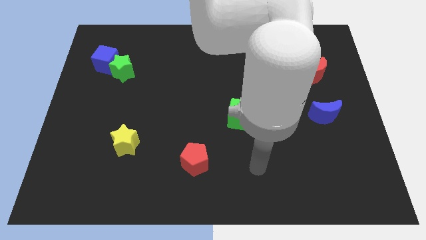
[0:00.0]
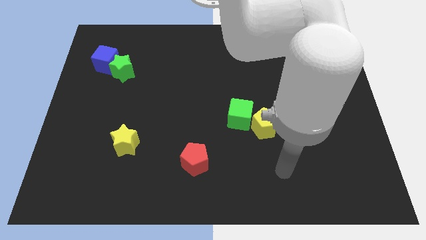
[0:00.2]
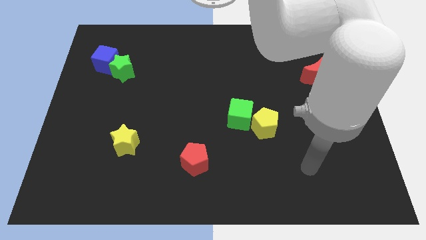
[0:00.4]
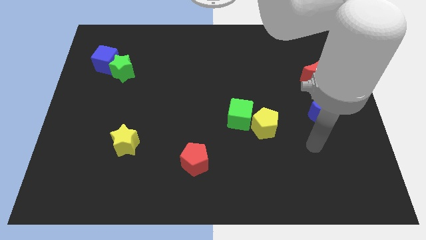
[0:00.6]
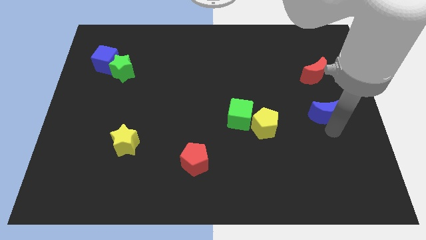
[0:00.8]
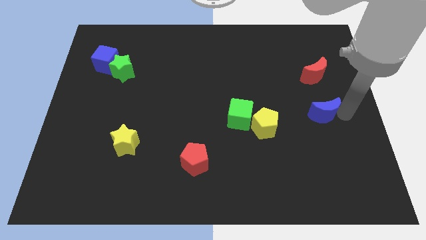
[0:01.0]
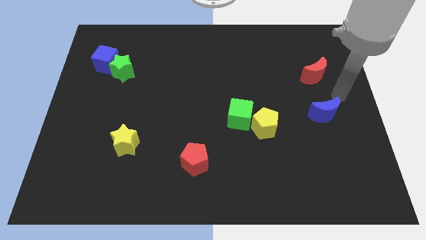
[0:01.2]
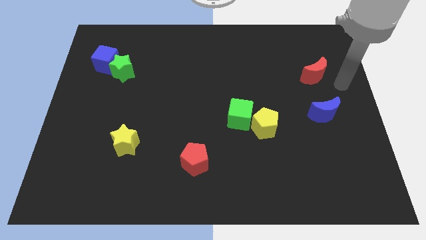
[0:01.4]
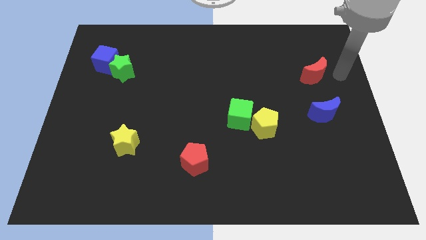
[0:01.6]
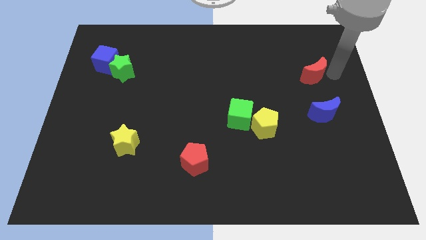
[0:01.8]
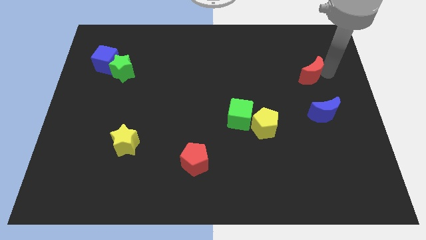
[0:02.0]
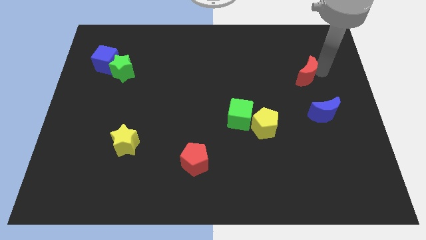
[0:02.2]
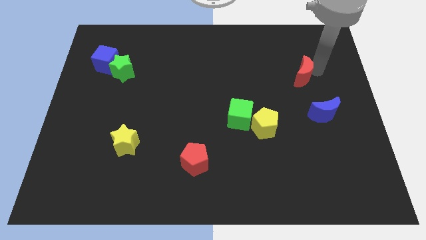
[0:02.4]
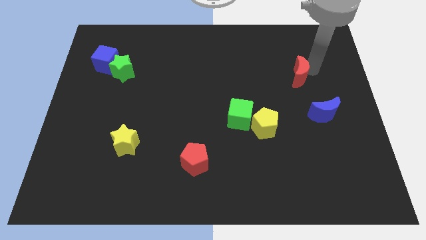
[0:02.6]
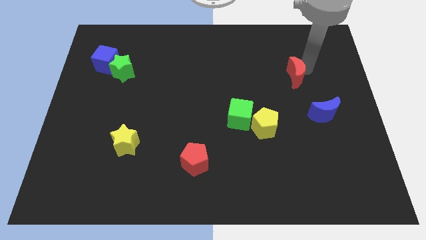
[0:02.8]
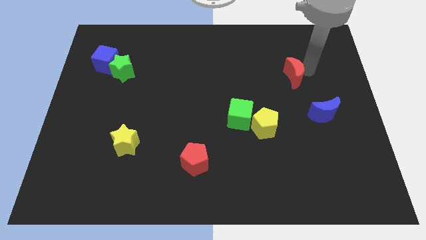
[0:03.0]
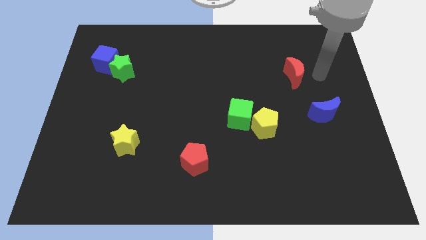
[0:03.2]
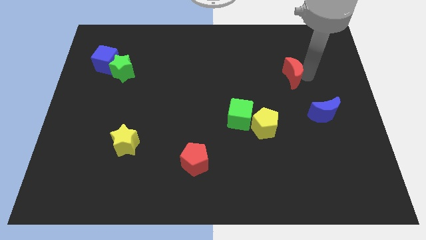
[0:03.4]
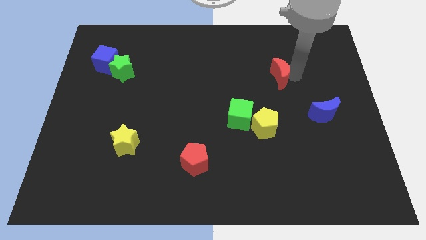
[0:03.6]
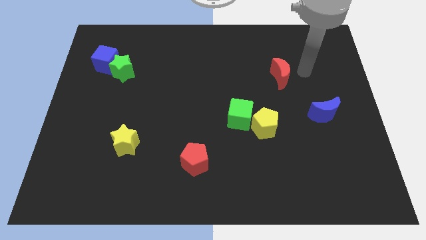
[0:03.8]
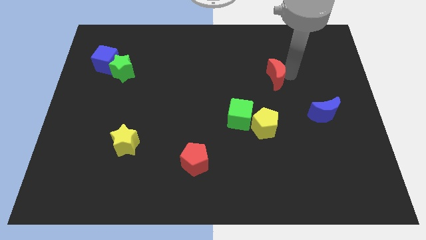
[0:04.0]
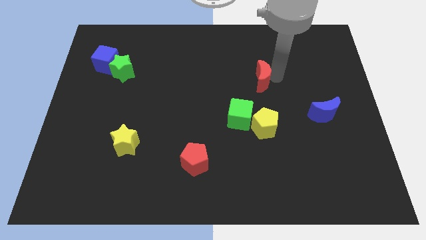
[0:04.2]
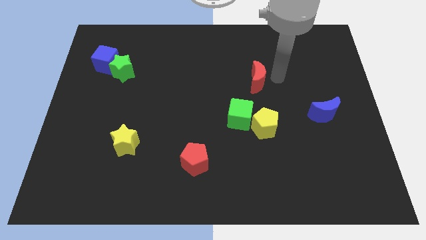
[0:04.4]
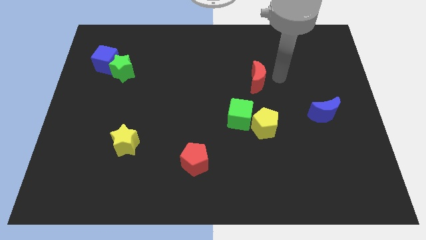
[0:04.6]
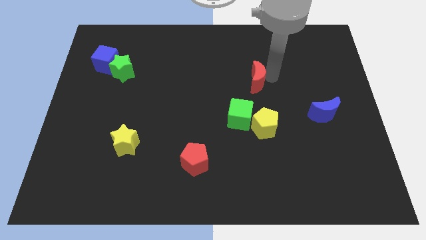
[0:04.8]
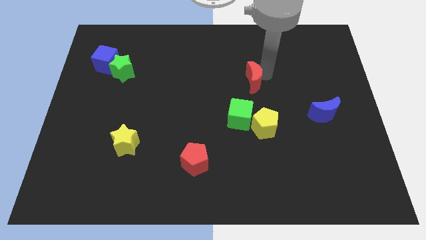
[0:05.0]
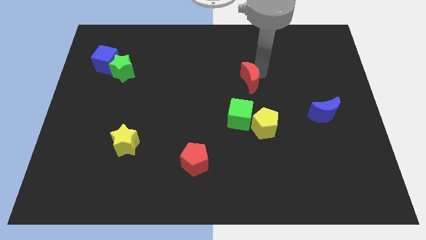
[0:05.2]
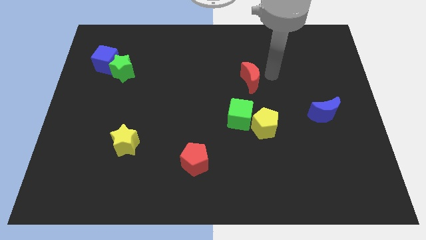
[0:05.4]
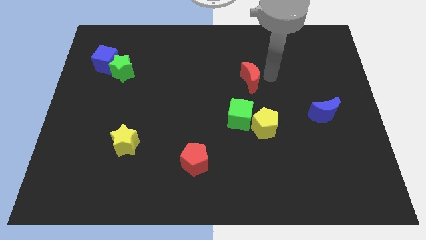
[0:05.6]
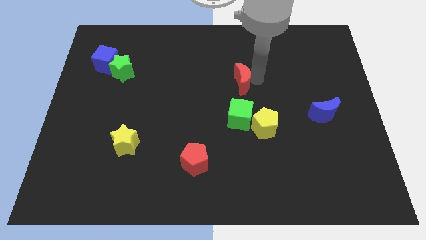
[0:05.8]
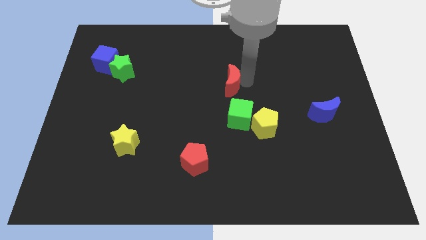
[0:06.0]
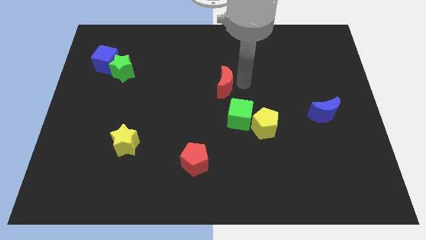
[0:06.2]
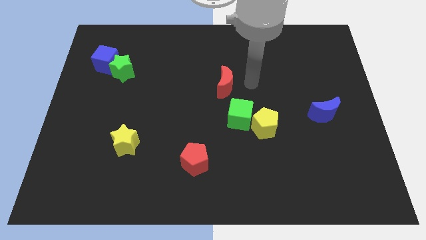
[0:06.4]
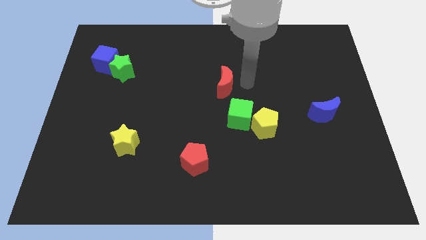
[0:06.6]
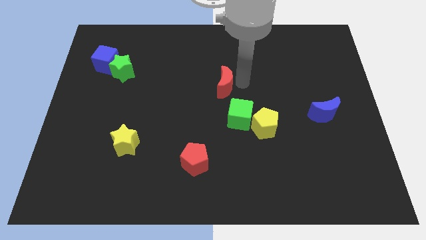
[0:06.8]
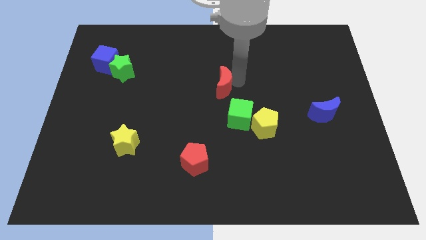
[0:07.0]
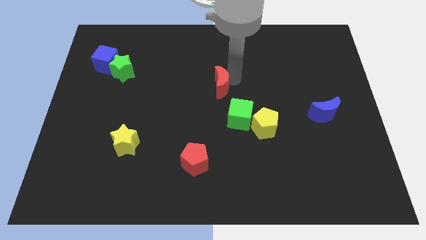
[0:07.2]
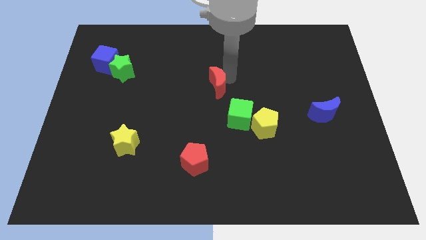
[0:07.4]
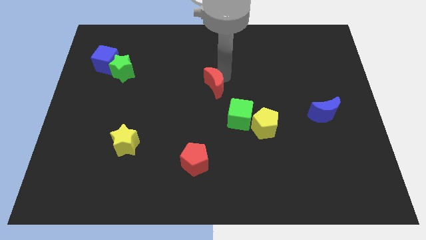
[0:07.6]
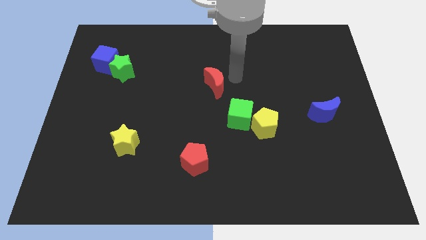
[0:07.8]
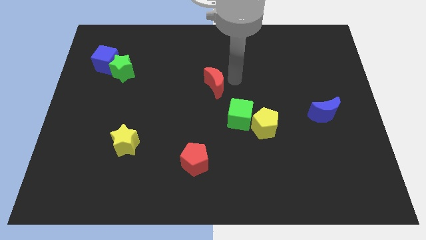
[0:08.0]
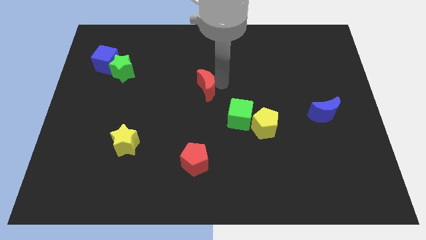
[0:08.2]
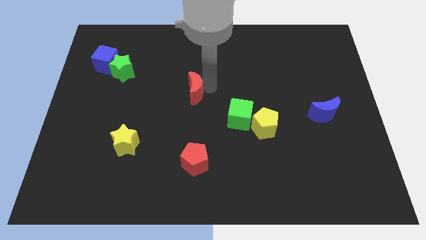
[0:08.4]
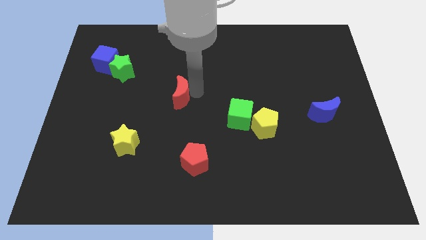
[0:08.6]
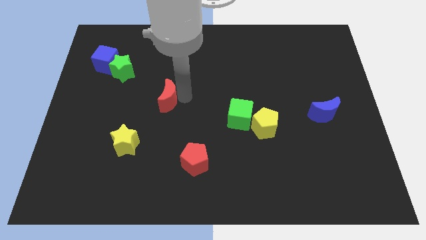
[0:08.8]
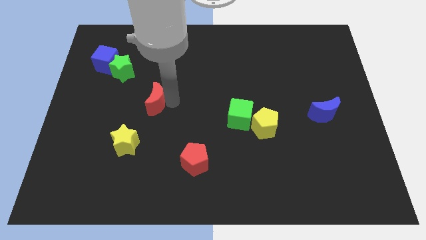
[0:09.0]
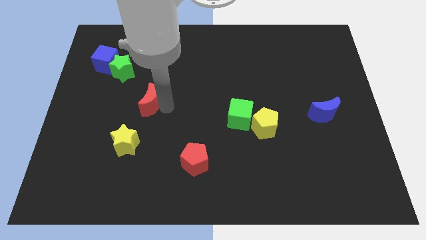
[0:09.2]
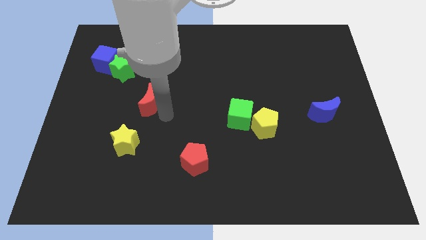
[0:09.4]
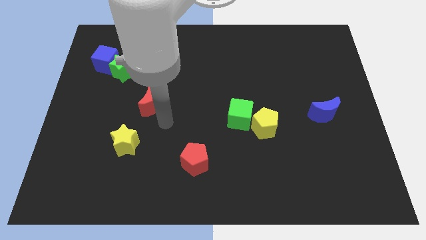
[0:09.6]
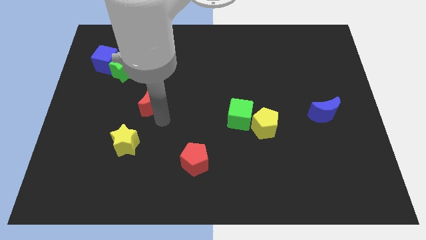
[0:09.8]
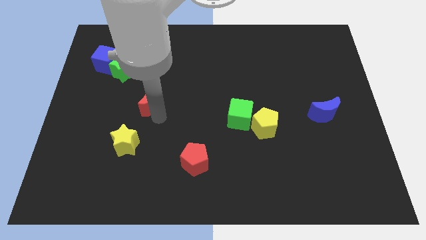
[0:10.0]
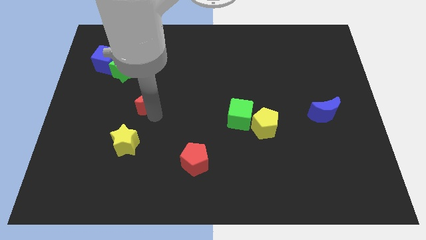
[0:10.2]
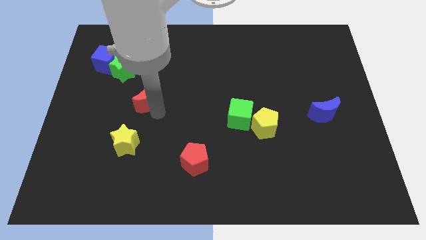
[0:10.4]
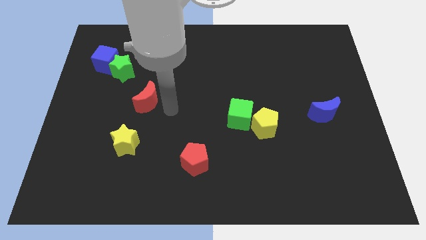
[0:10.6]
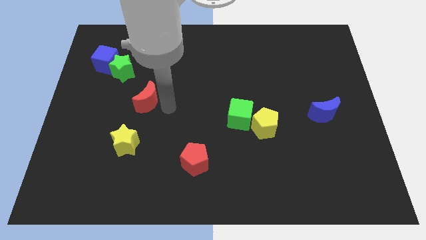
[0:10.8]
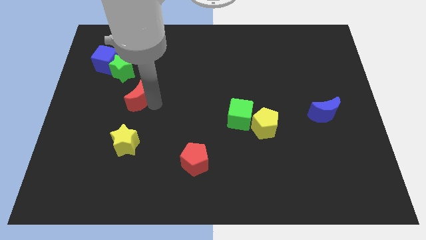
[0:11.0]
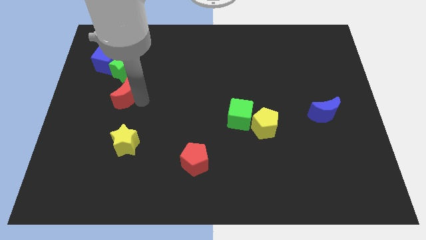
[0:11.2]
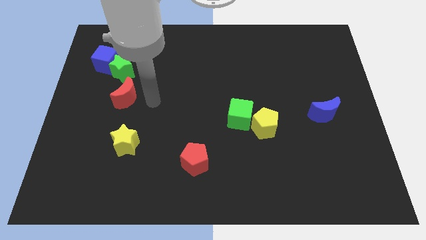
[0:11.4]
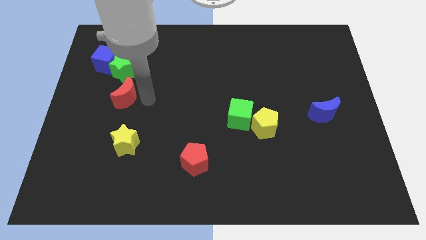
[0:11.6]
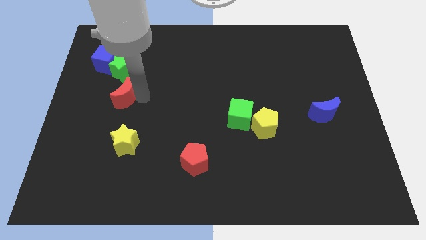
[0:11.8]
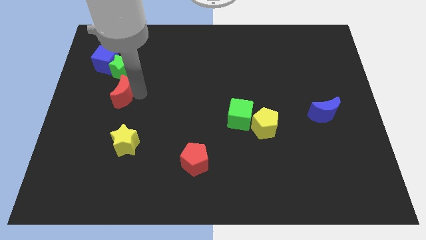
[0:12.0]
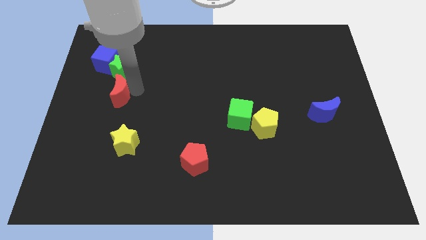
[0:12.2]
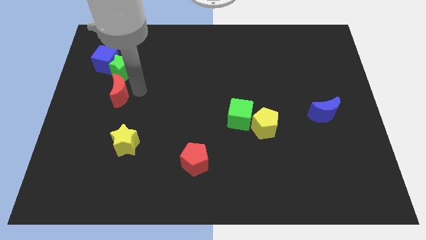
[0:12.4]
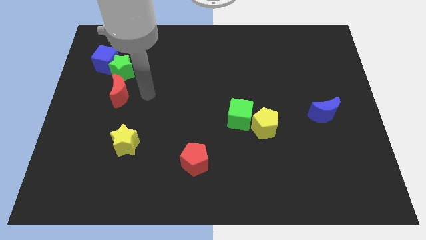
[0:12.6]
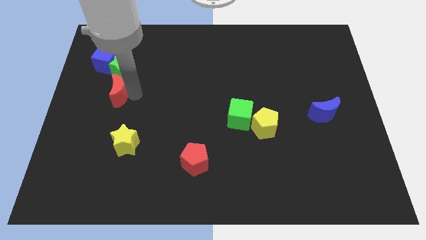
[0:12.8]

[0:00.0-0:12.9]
move the red moon to the bottom side of the blue cube
